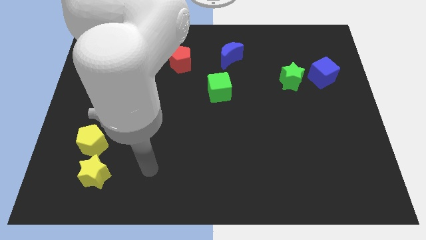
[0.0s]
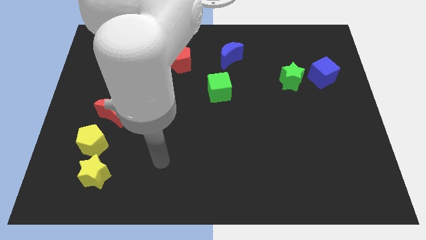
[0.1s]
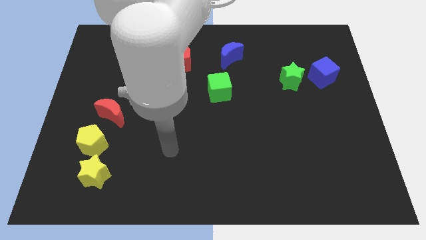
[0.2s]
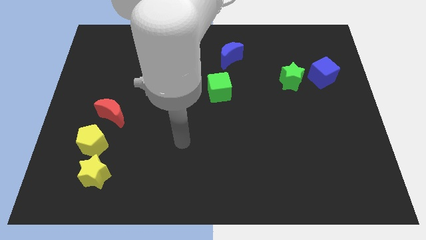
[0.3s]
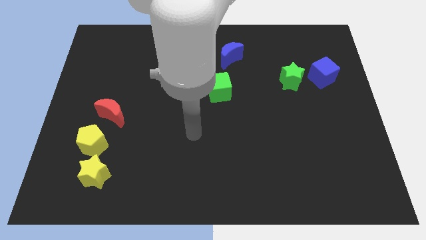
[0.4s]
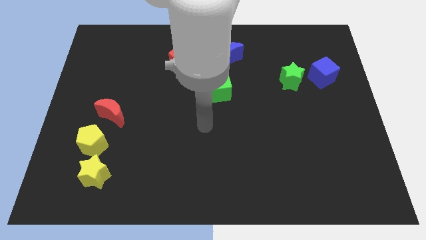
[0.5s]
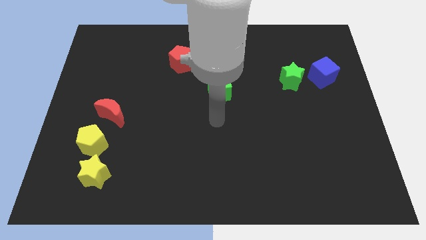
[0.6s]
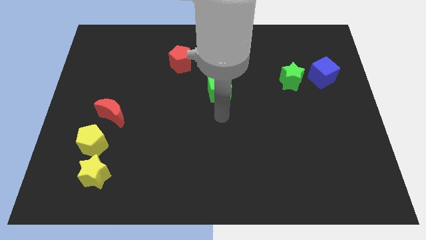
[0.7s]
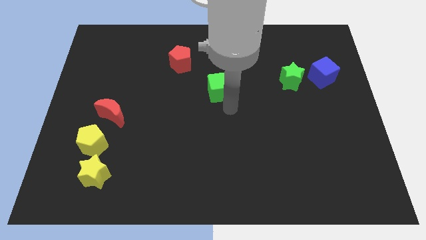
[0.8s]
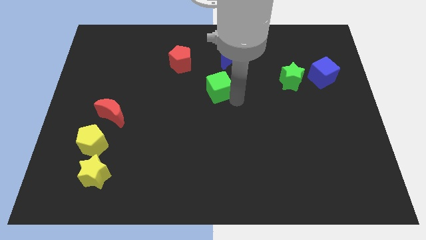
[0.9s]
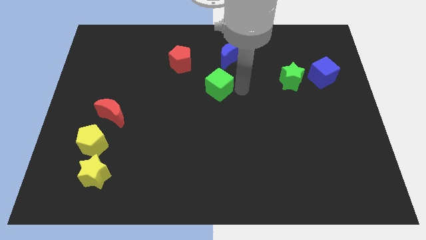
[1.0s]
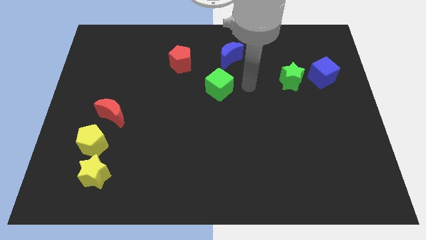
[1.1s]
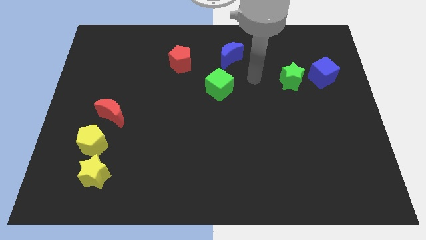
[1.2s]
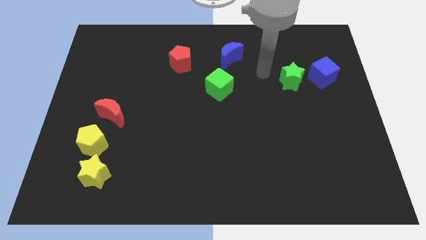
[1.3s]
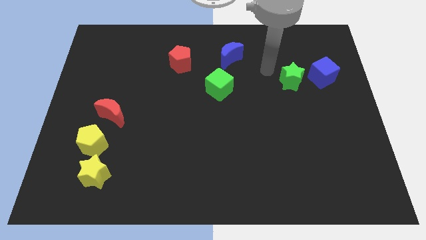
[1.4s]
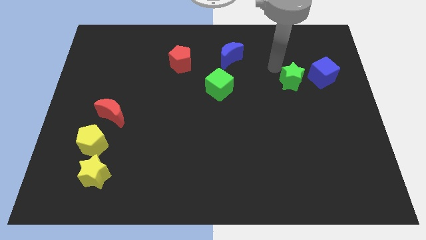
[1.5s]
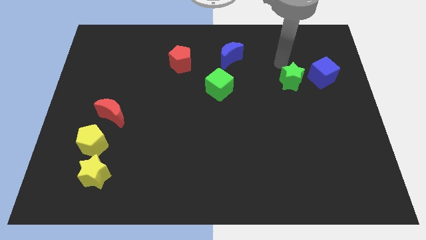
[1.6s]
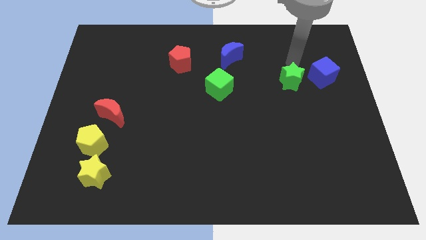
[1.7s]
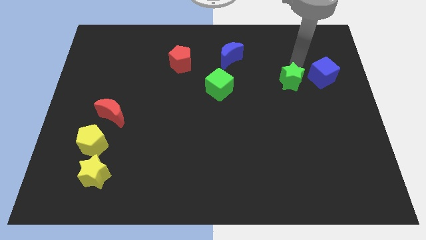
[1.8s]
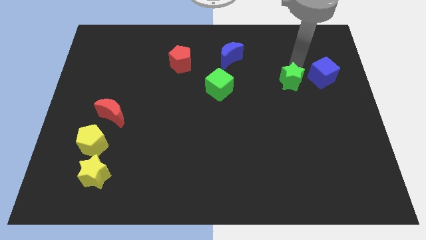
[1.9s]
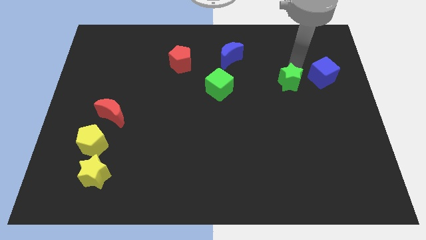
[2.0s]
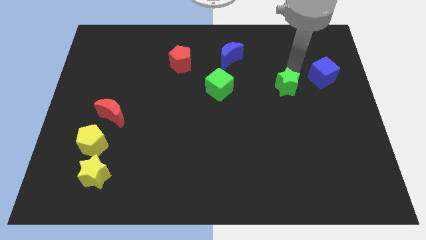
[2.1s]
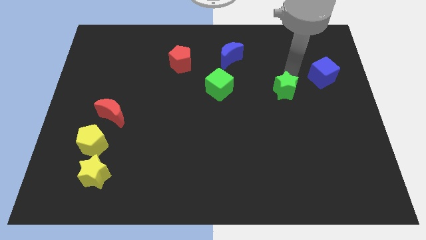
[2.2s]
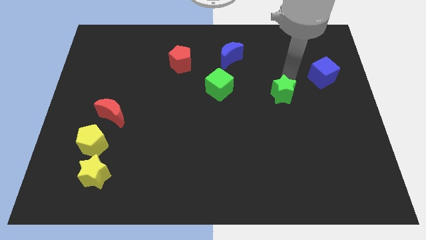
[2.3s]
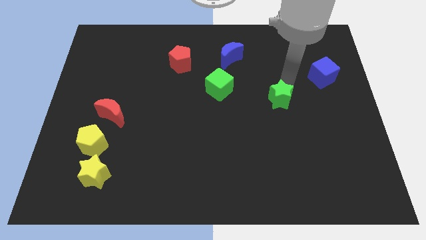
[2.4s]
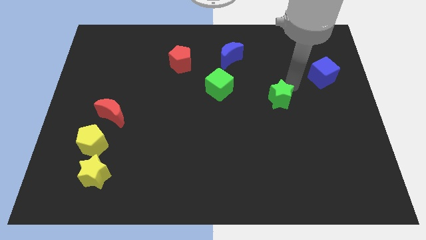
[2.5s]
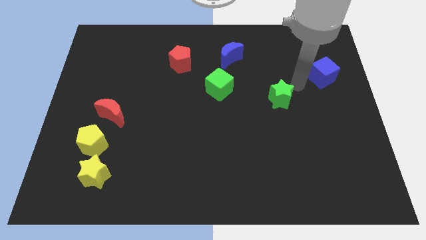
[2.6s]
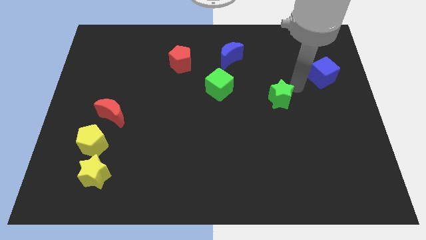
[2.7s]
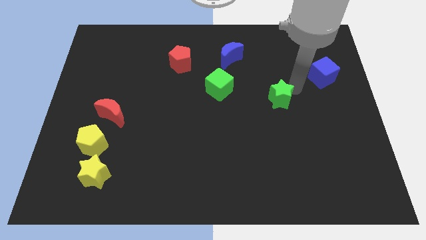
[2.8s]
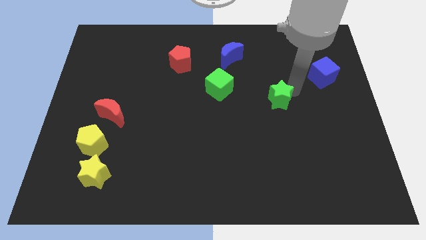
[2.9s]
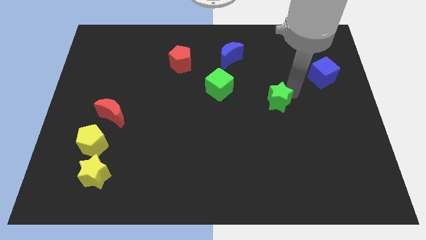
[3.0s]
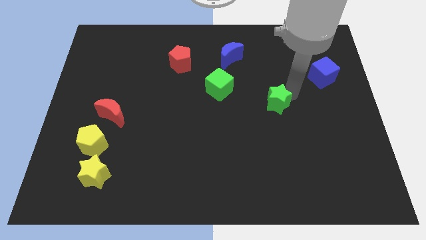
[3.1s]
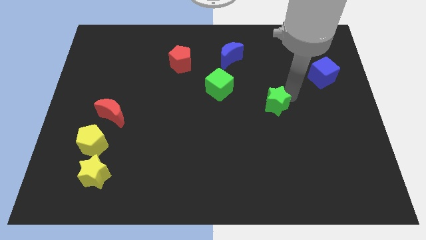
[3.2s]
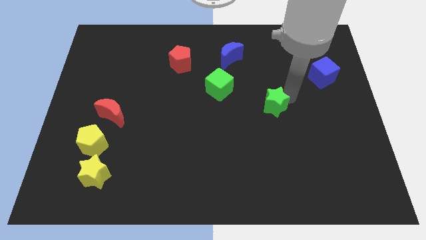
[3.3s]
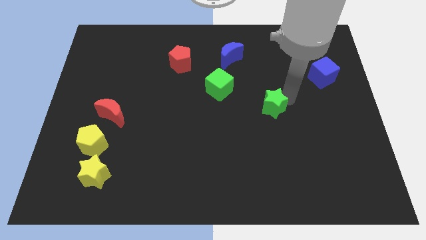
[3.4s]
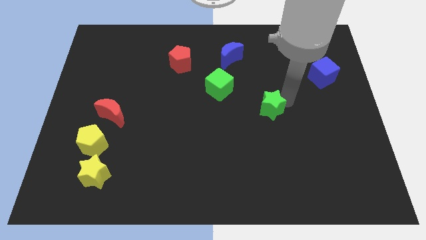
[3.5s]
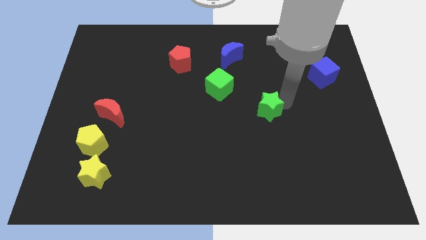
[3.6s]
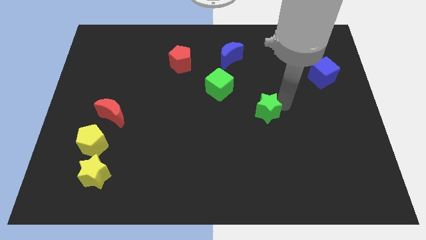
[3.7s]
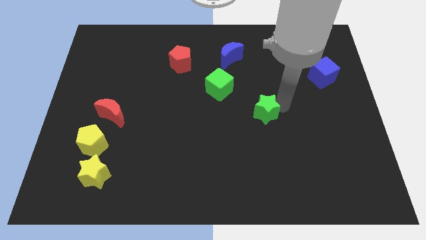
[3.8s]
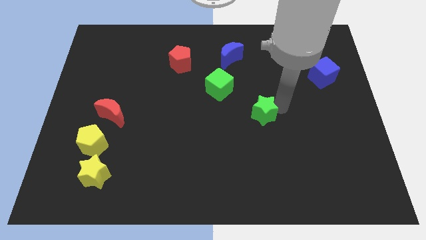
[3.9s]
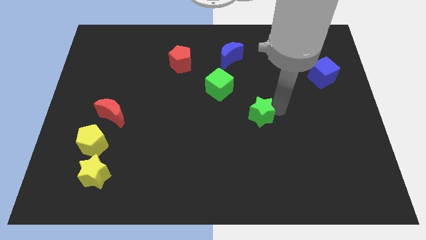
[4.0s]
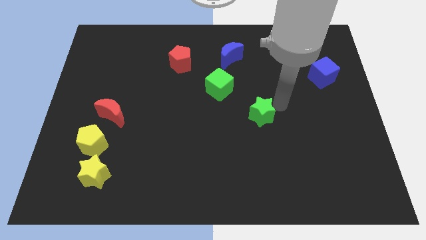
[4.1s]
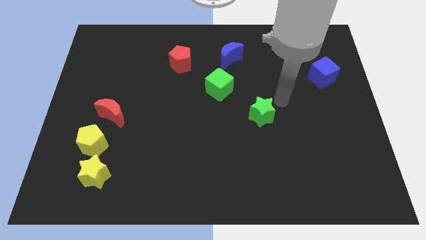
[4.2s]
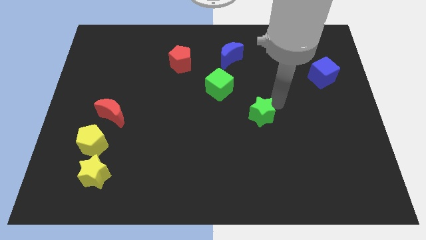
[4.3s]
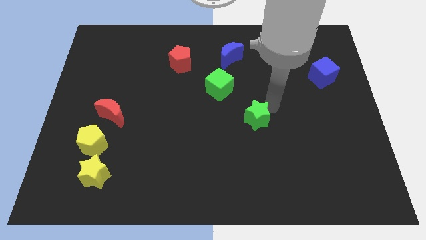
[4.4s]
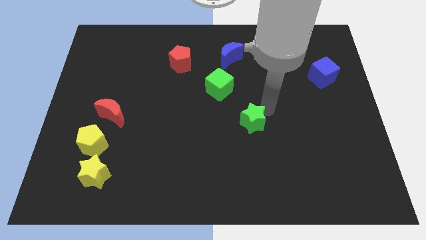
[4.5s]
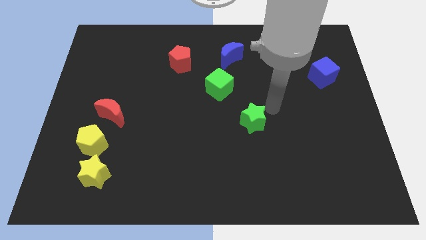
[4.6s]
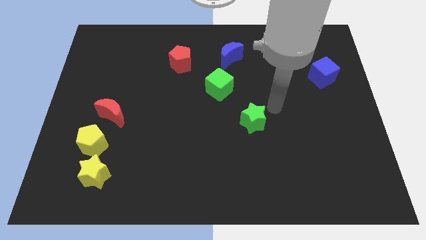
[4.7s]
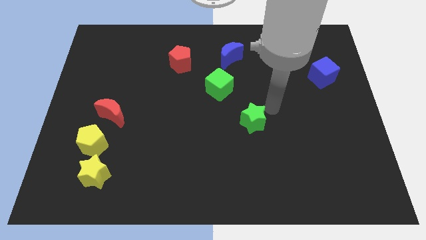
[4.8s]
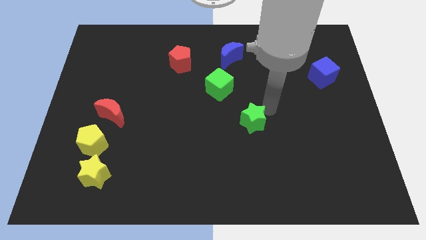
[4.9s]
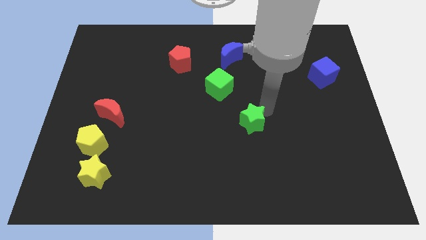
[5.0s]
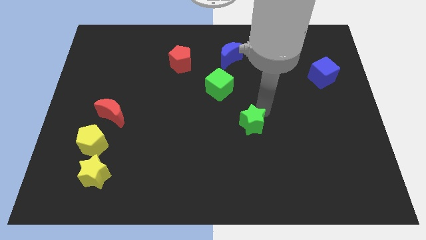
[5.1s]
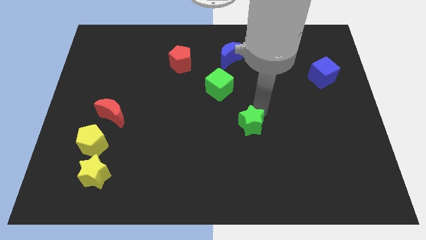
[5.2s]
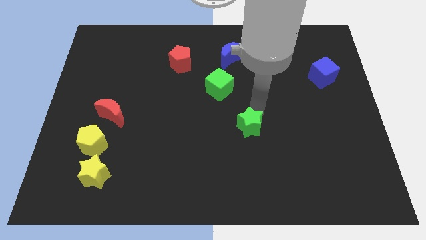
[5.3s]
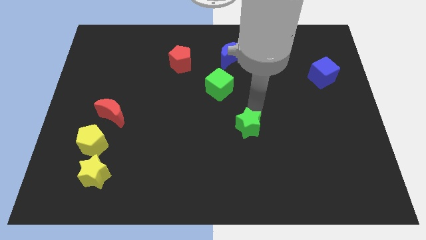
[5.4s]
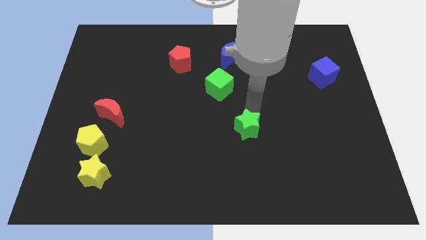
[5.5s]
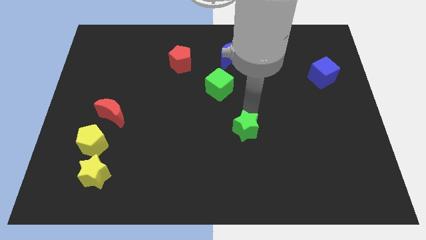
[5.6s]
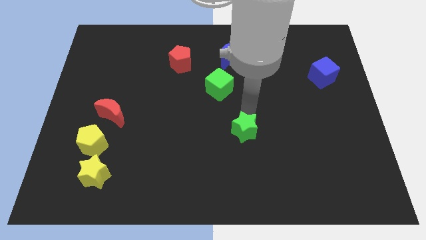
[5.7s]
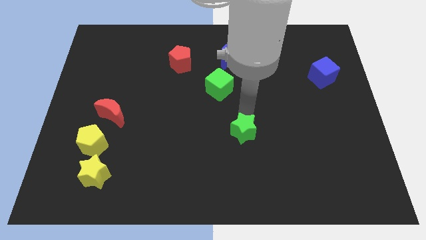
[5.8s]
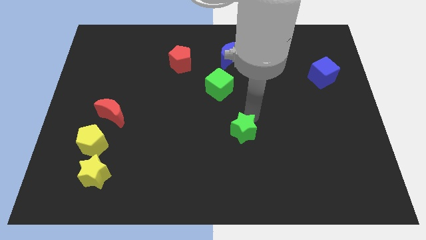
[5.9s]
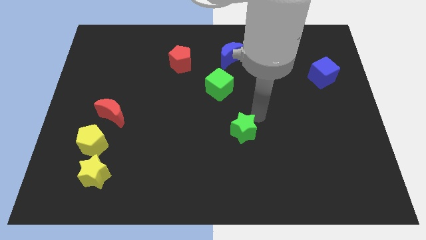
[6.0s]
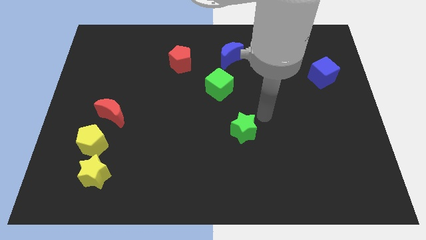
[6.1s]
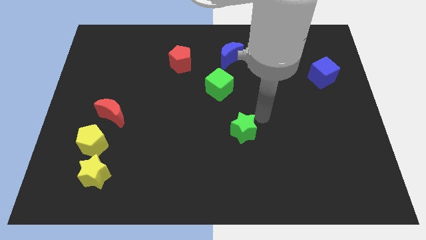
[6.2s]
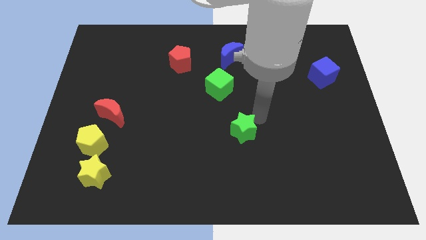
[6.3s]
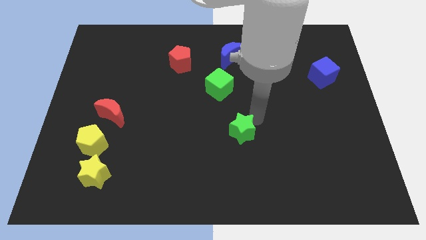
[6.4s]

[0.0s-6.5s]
move the green star down and then left

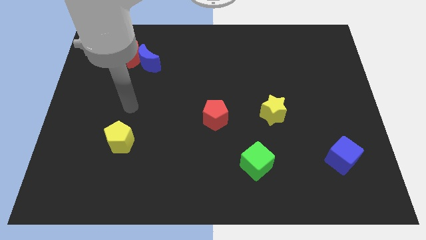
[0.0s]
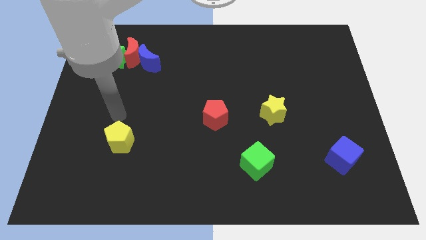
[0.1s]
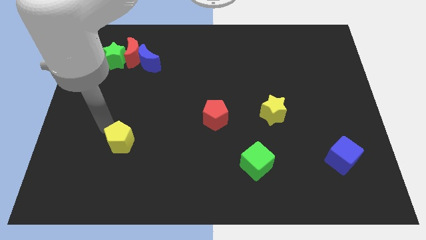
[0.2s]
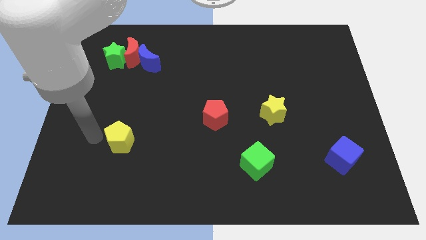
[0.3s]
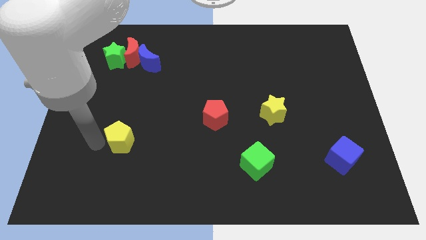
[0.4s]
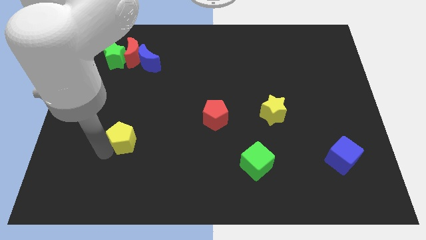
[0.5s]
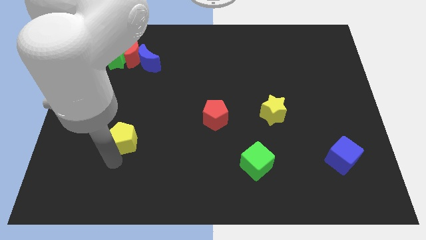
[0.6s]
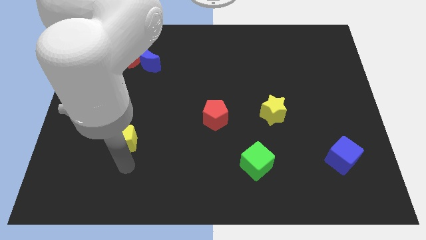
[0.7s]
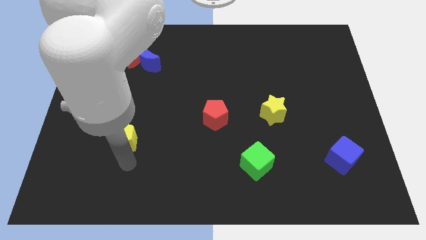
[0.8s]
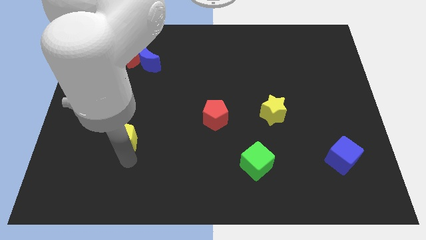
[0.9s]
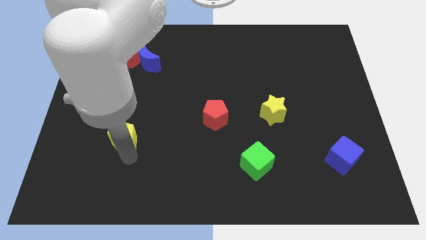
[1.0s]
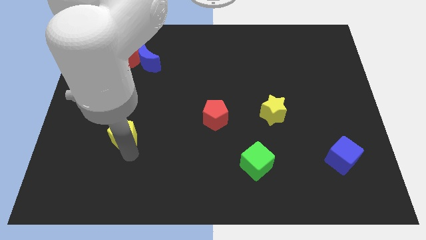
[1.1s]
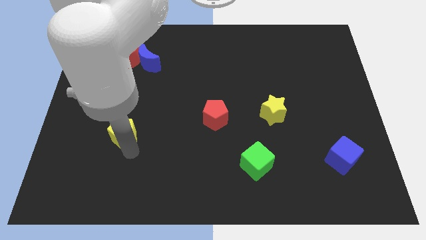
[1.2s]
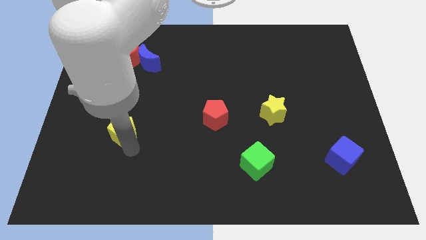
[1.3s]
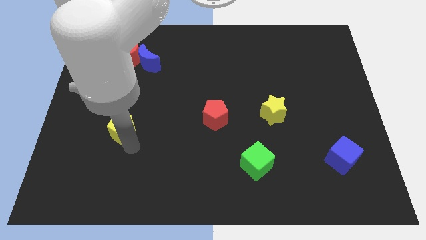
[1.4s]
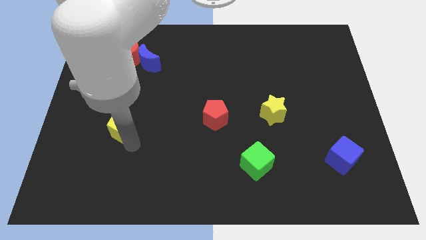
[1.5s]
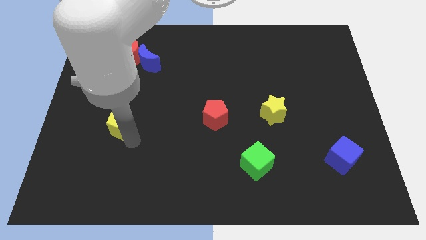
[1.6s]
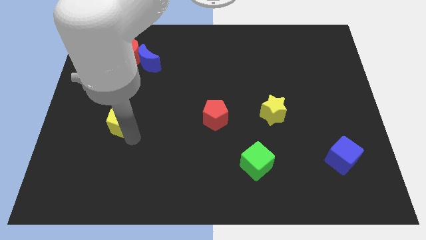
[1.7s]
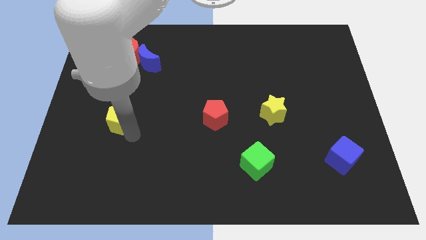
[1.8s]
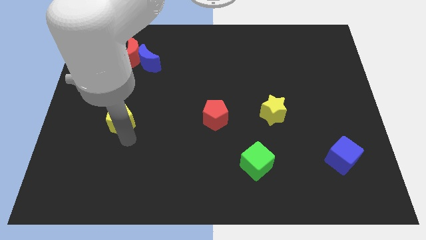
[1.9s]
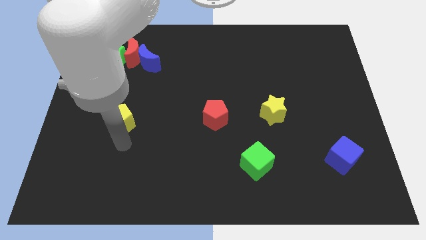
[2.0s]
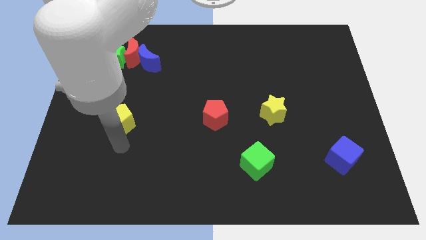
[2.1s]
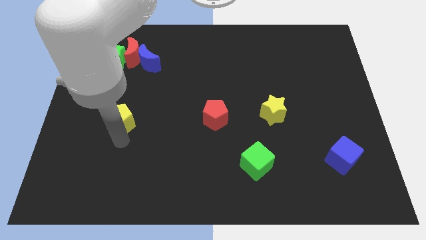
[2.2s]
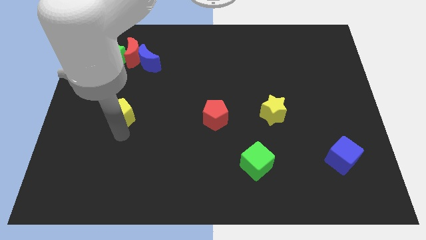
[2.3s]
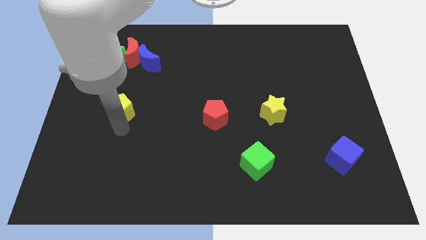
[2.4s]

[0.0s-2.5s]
move the yellow pentagon a little upwards
